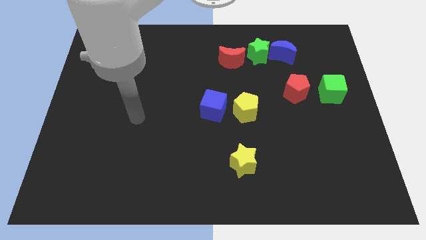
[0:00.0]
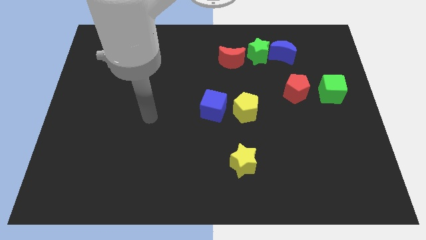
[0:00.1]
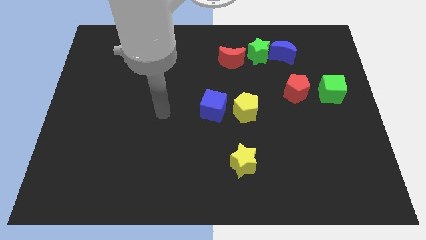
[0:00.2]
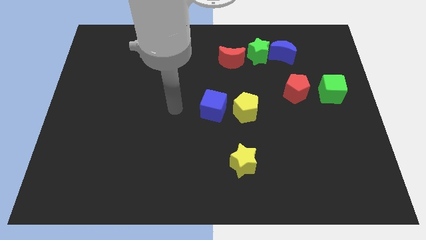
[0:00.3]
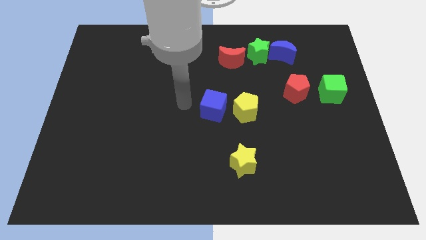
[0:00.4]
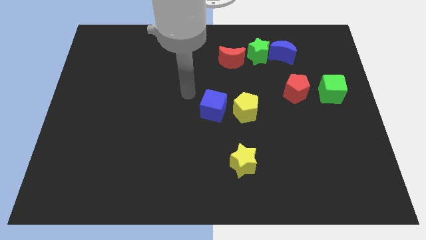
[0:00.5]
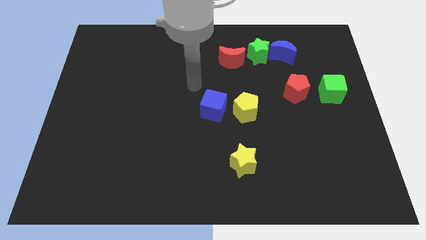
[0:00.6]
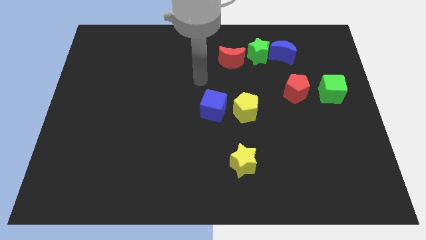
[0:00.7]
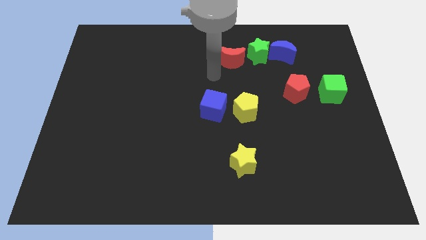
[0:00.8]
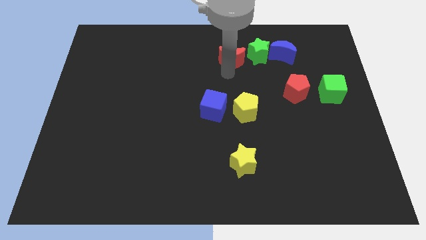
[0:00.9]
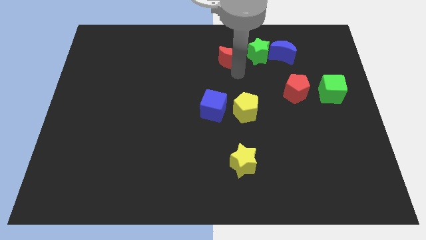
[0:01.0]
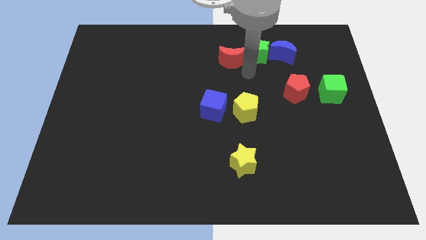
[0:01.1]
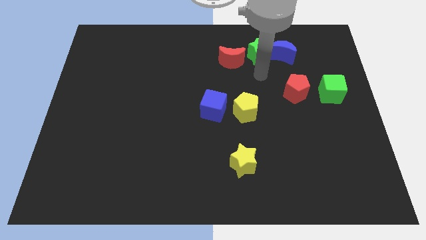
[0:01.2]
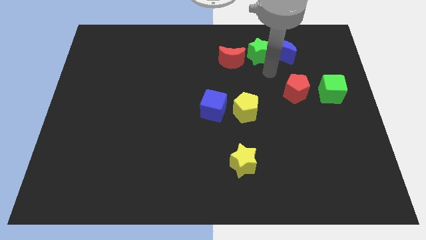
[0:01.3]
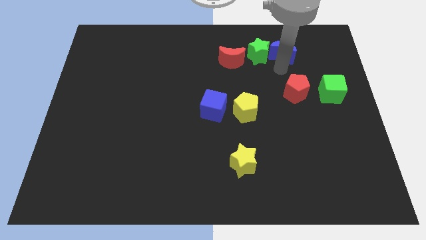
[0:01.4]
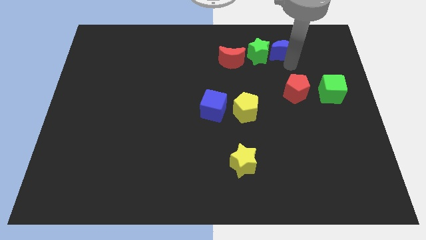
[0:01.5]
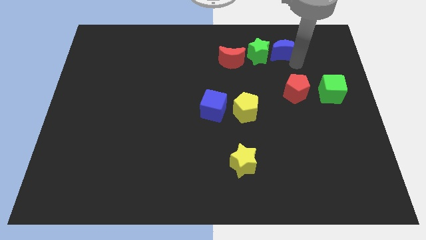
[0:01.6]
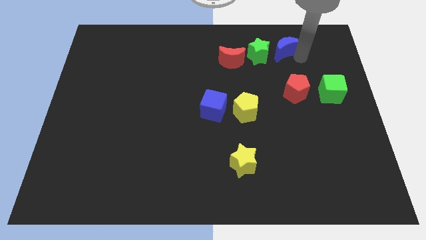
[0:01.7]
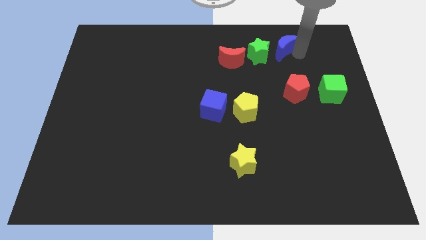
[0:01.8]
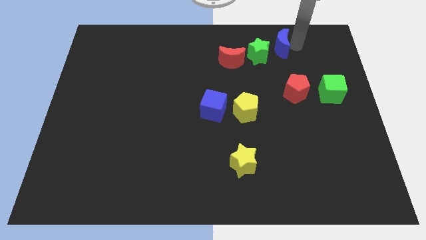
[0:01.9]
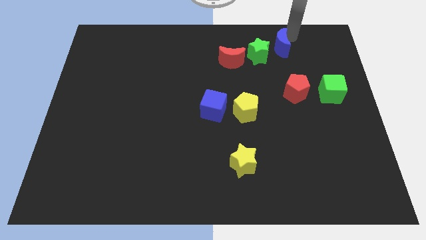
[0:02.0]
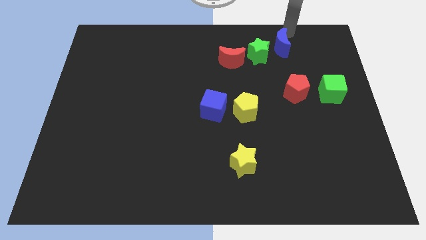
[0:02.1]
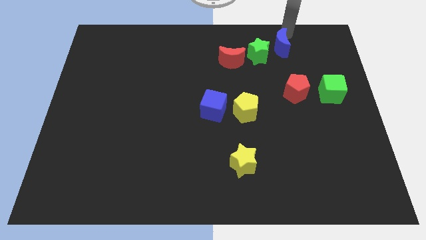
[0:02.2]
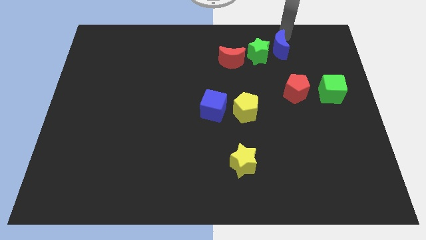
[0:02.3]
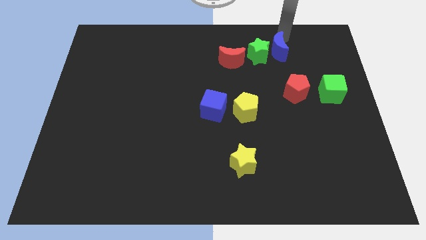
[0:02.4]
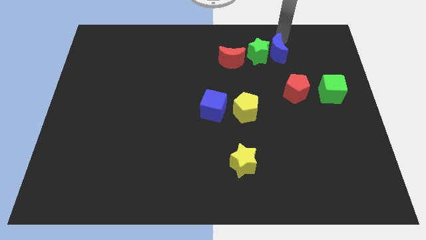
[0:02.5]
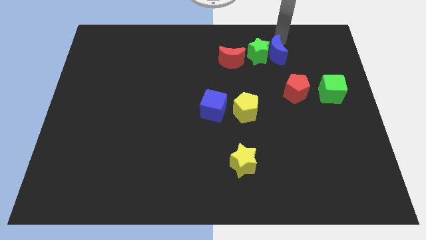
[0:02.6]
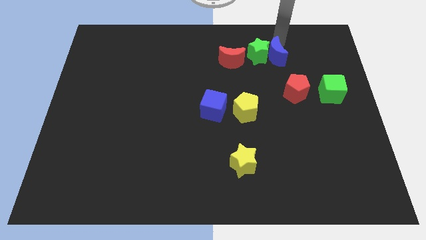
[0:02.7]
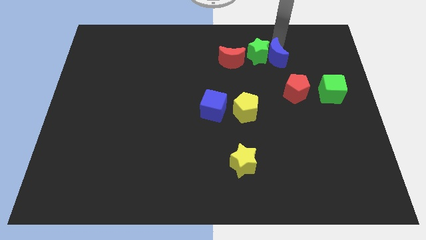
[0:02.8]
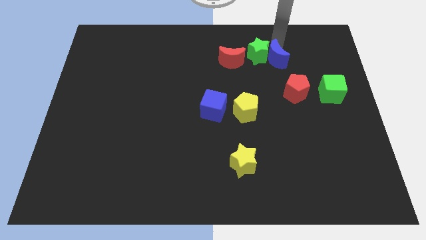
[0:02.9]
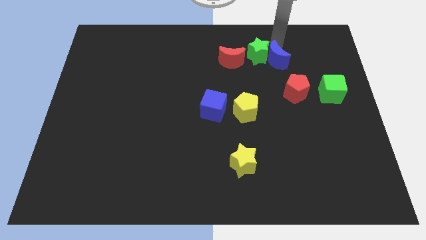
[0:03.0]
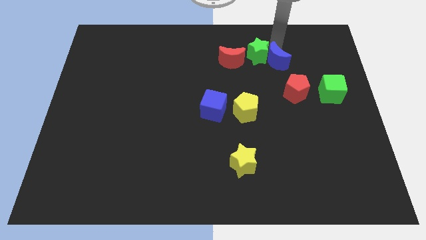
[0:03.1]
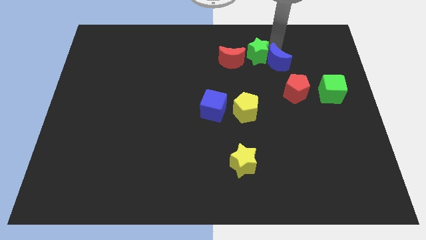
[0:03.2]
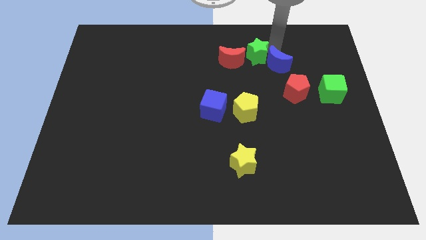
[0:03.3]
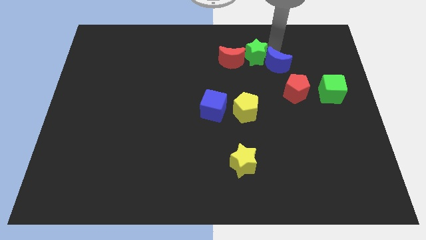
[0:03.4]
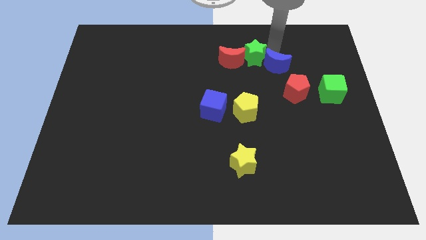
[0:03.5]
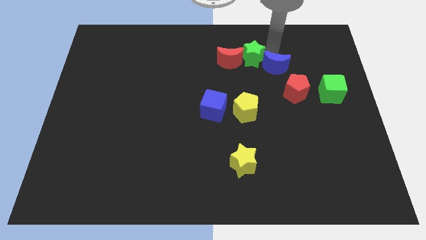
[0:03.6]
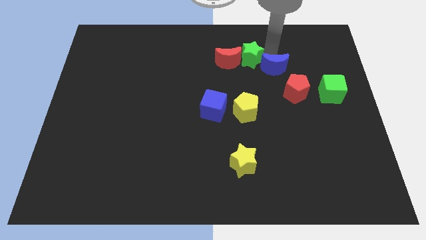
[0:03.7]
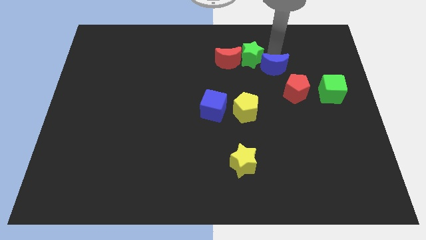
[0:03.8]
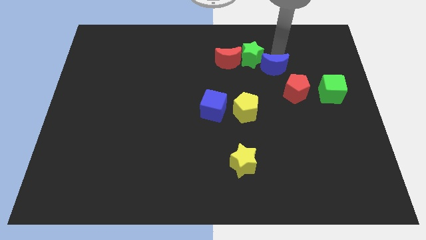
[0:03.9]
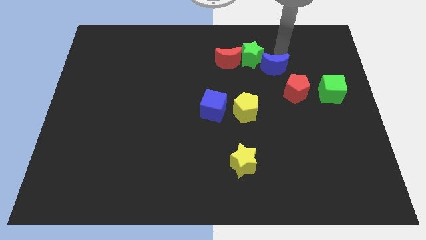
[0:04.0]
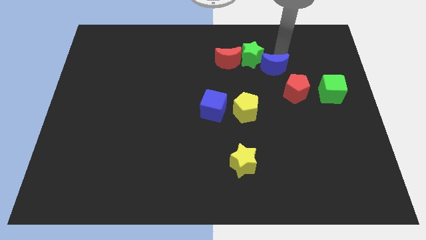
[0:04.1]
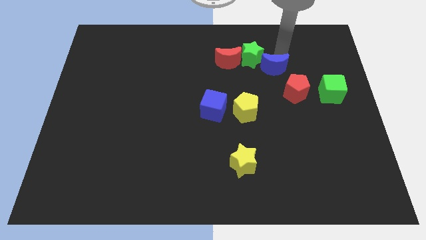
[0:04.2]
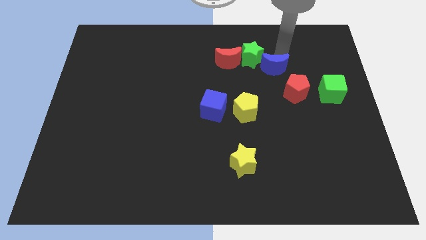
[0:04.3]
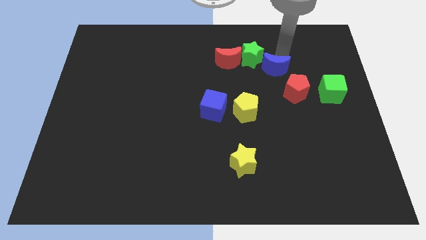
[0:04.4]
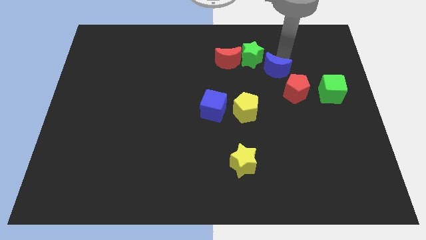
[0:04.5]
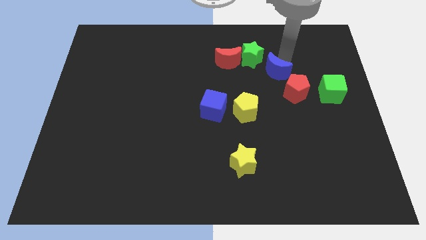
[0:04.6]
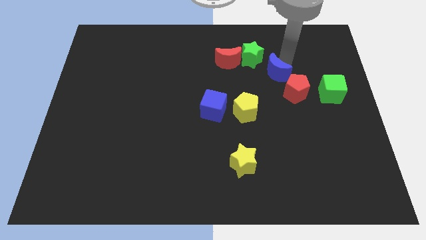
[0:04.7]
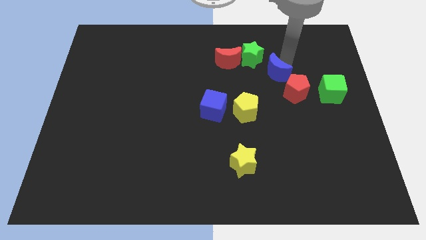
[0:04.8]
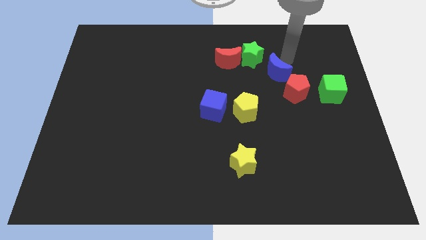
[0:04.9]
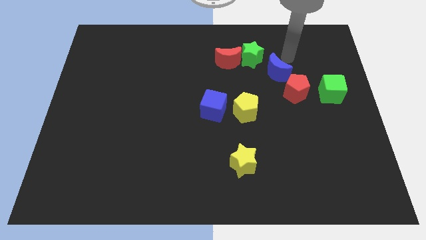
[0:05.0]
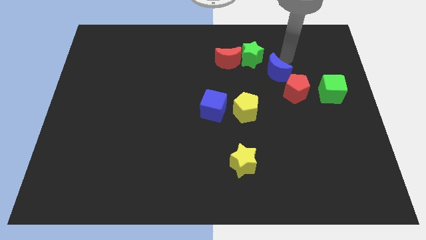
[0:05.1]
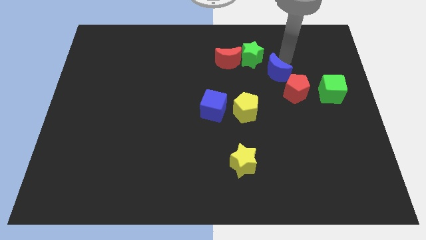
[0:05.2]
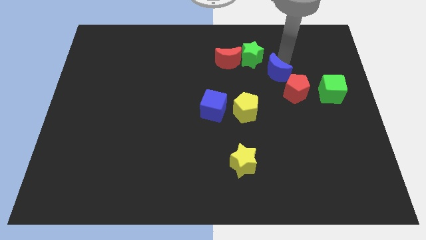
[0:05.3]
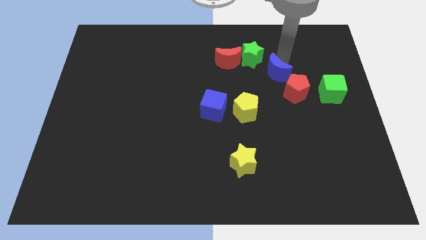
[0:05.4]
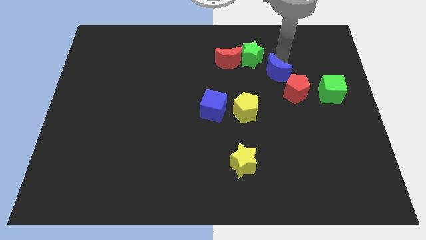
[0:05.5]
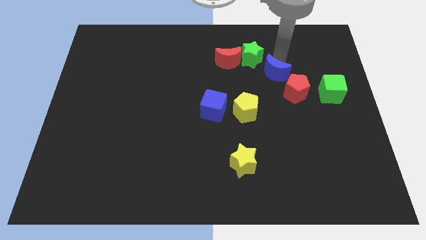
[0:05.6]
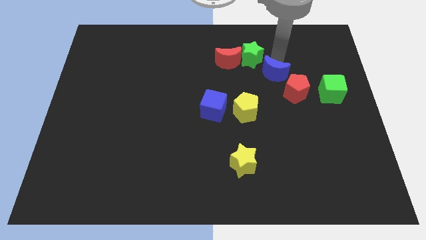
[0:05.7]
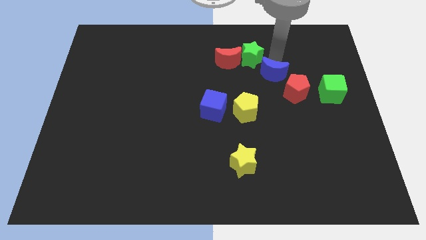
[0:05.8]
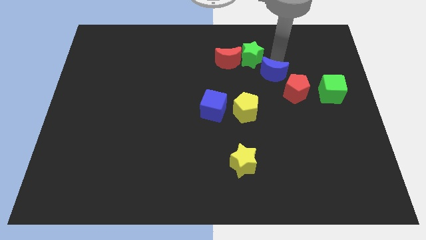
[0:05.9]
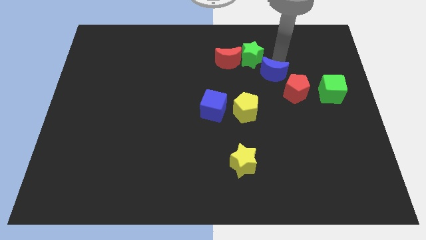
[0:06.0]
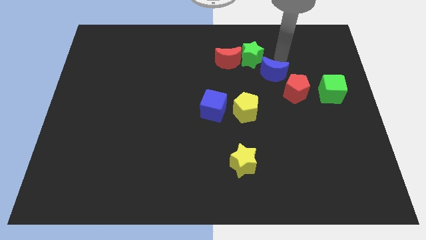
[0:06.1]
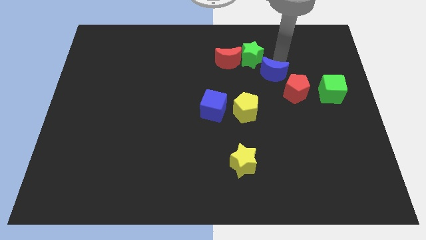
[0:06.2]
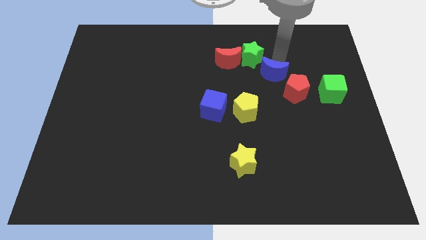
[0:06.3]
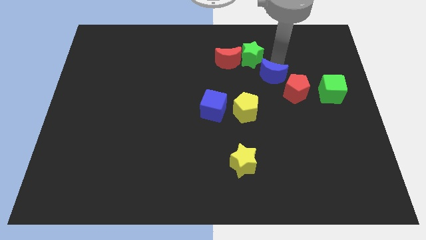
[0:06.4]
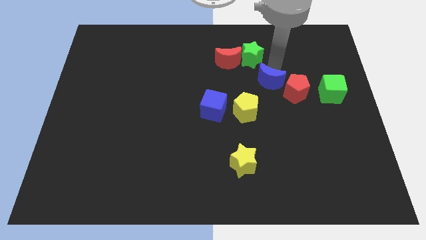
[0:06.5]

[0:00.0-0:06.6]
move the blue moon diagonally up and to the right of the yellow pentagon

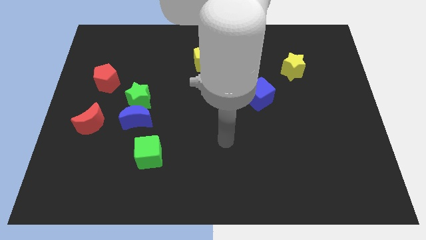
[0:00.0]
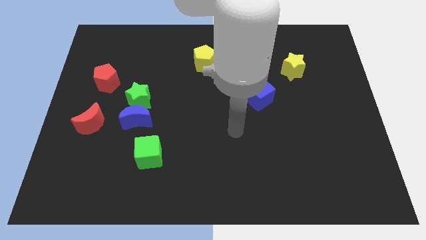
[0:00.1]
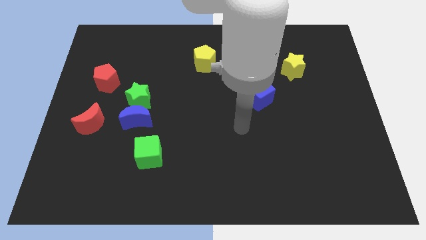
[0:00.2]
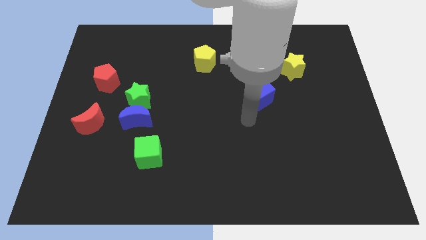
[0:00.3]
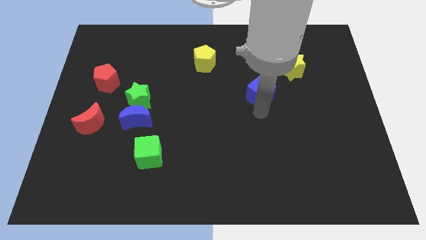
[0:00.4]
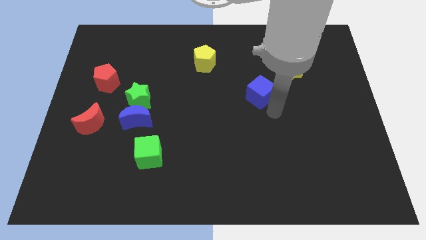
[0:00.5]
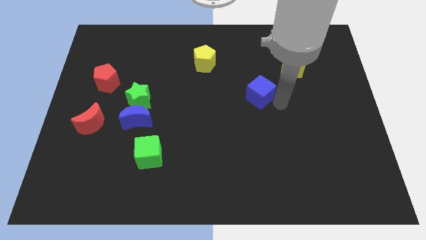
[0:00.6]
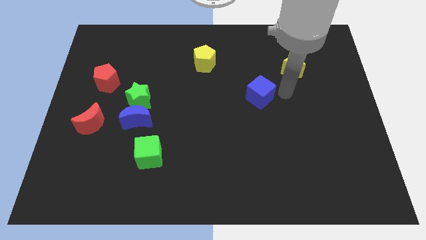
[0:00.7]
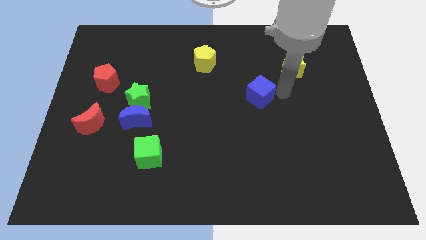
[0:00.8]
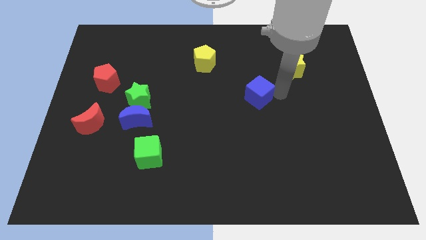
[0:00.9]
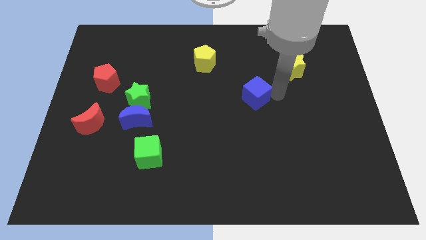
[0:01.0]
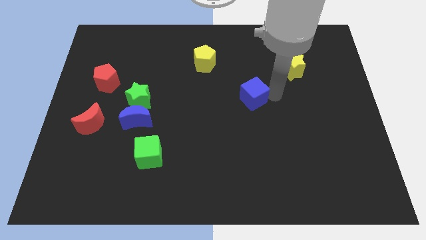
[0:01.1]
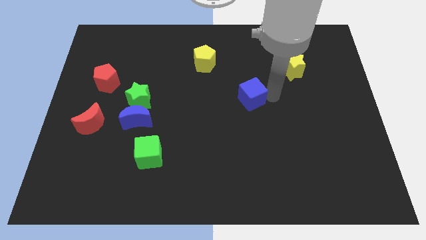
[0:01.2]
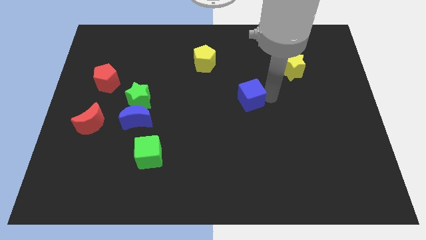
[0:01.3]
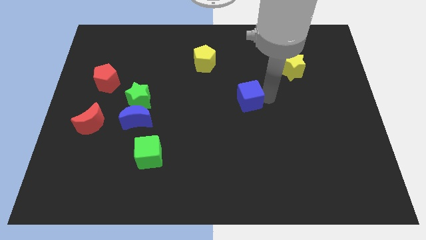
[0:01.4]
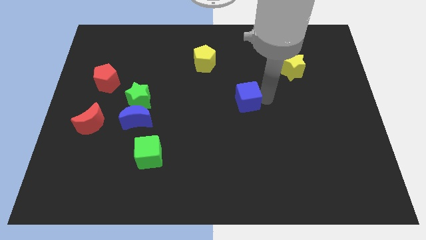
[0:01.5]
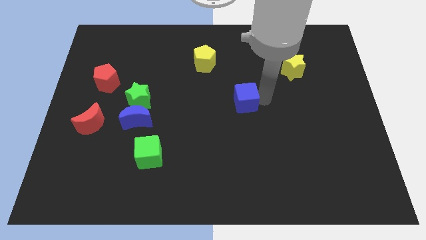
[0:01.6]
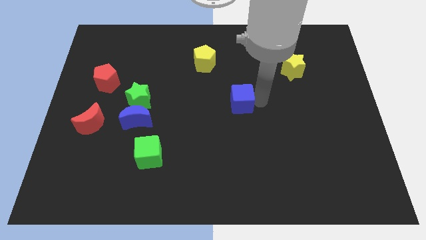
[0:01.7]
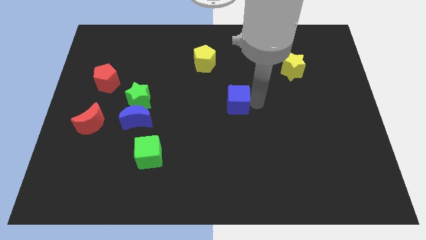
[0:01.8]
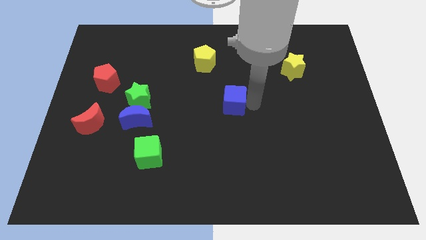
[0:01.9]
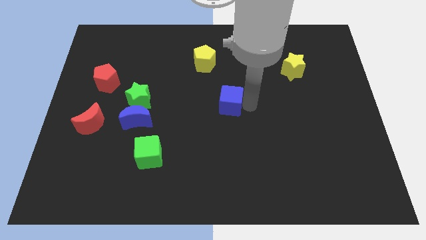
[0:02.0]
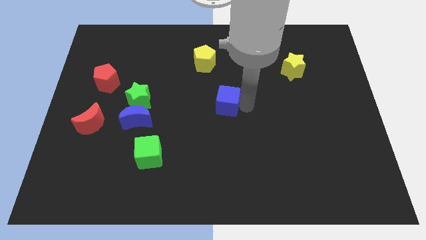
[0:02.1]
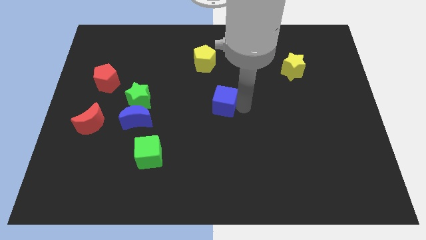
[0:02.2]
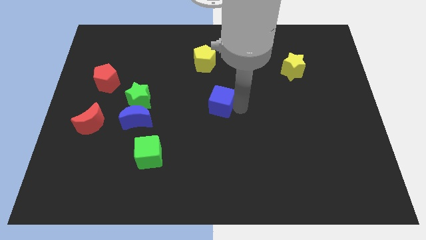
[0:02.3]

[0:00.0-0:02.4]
slide the blue cube to the bottom of the yellow pentagon
